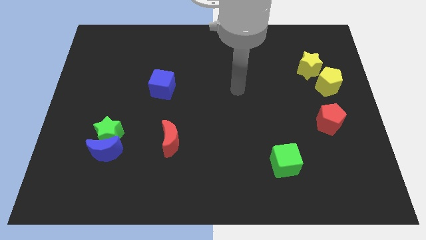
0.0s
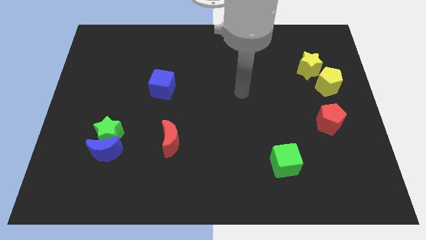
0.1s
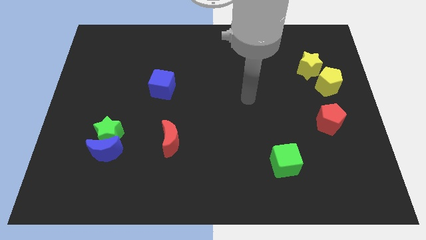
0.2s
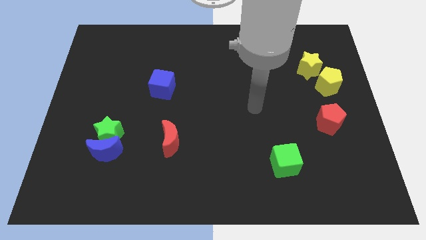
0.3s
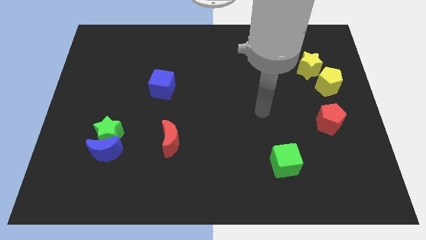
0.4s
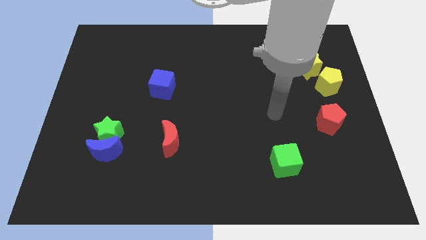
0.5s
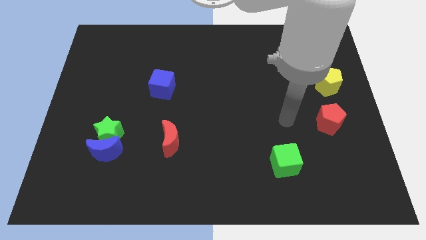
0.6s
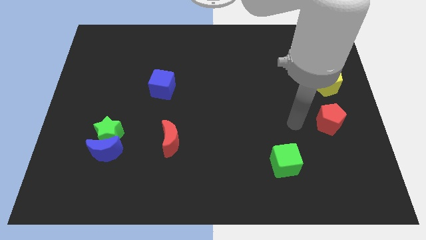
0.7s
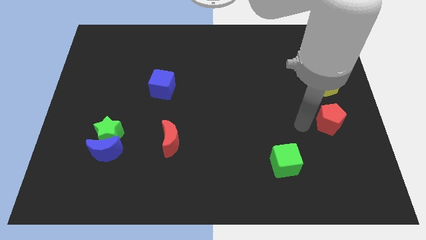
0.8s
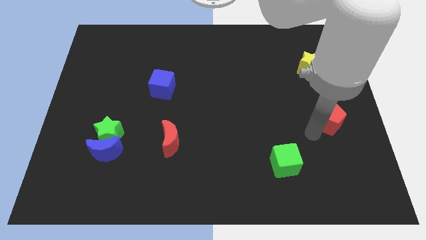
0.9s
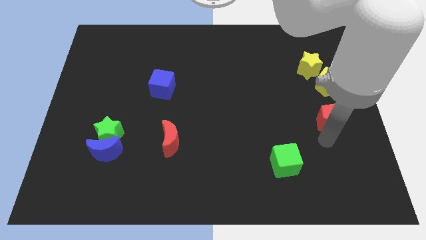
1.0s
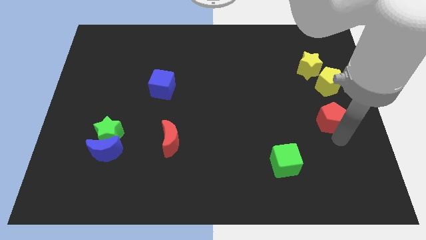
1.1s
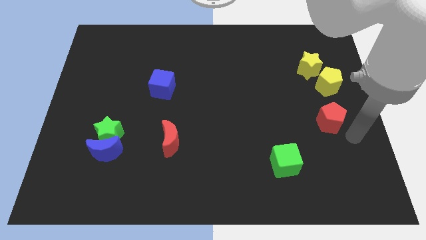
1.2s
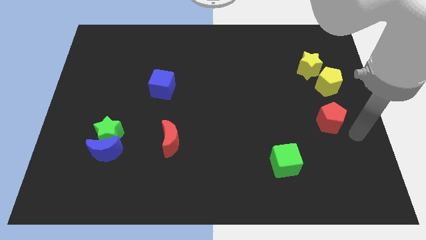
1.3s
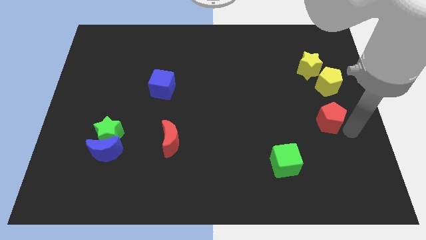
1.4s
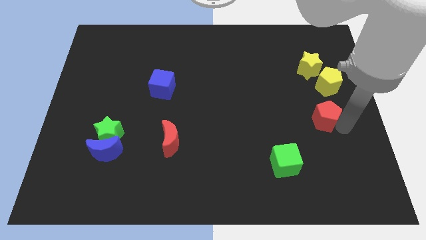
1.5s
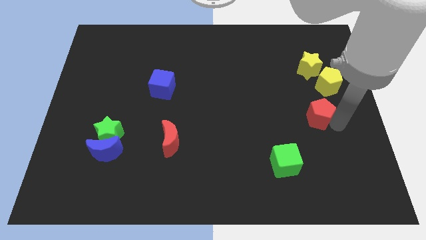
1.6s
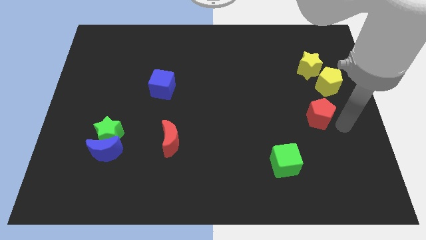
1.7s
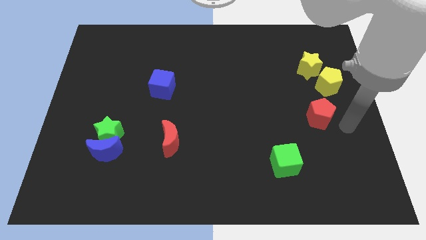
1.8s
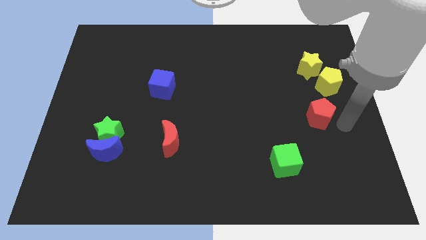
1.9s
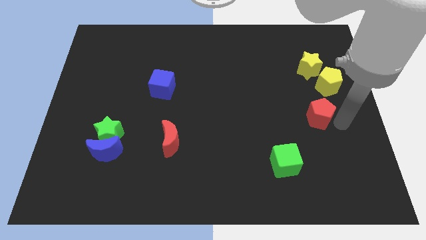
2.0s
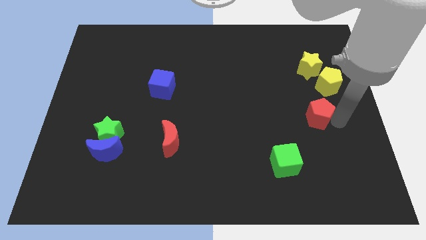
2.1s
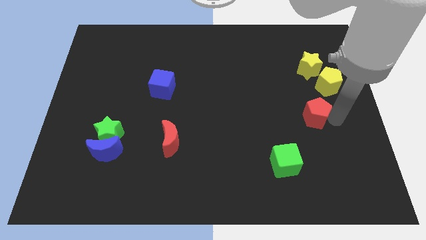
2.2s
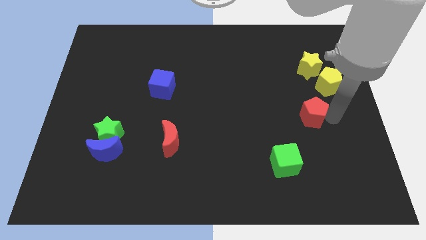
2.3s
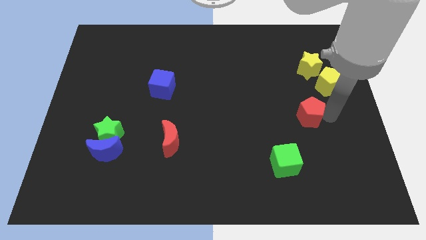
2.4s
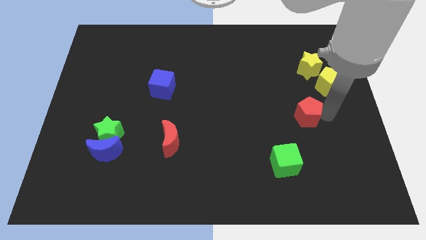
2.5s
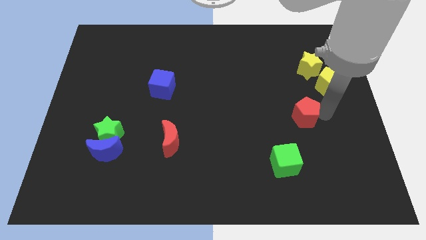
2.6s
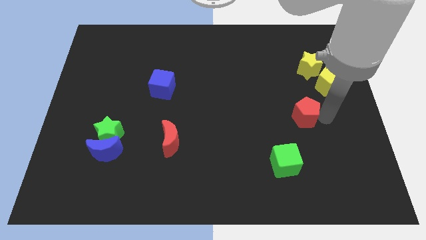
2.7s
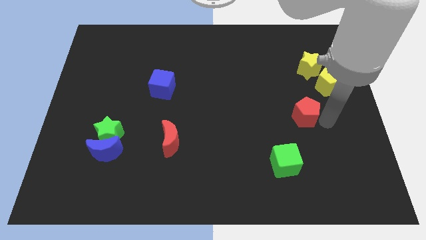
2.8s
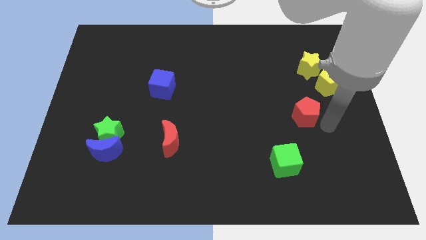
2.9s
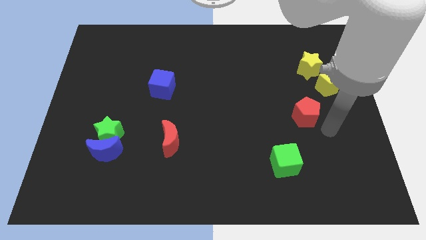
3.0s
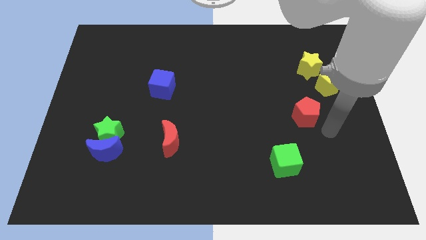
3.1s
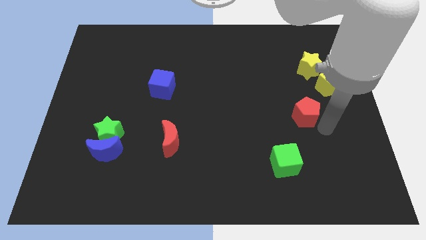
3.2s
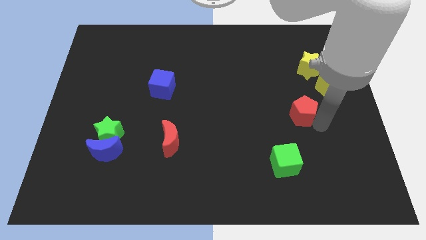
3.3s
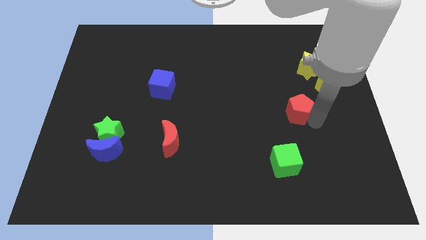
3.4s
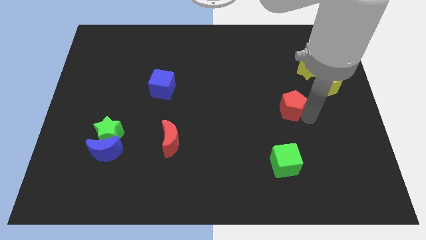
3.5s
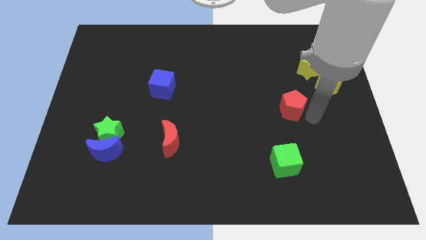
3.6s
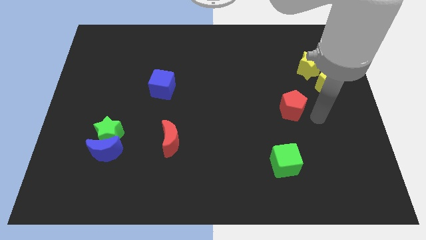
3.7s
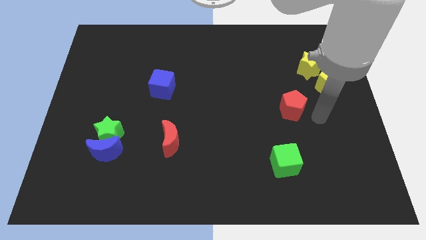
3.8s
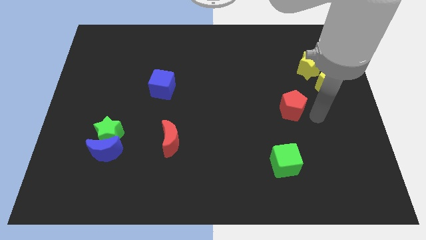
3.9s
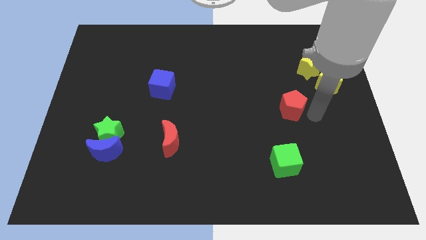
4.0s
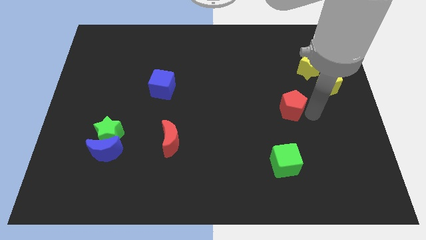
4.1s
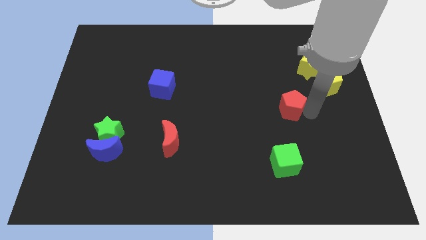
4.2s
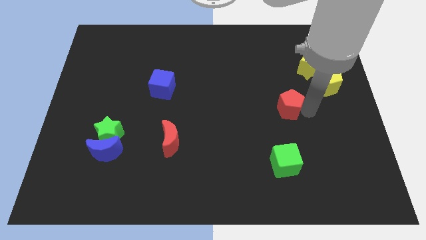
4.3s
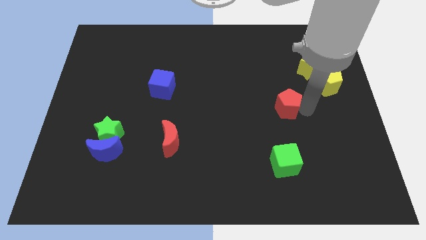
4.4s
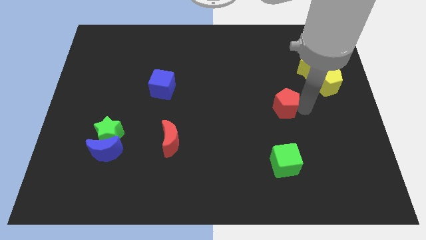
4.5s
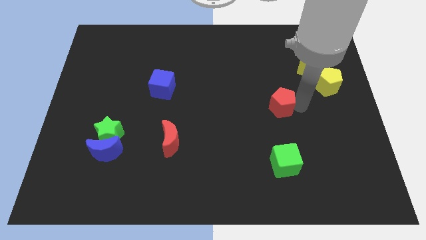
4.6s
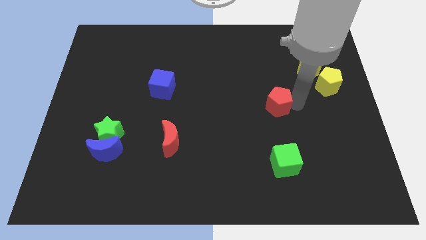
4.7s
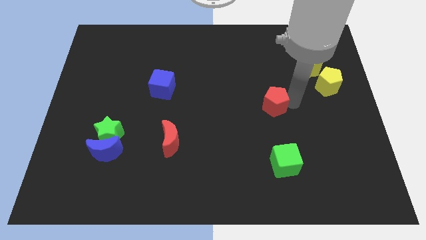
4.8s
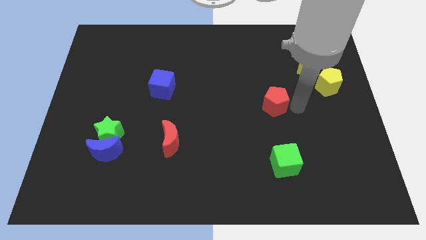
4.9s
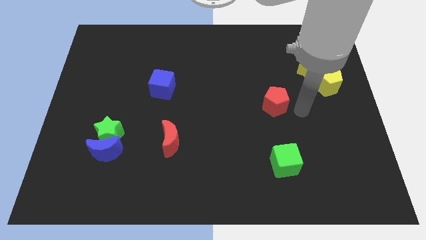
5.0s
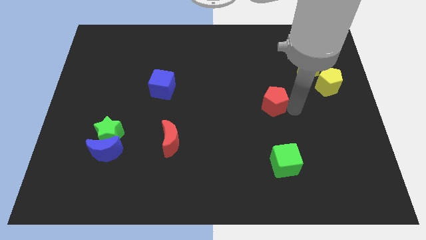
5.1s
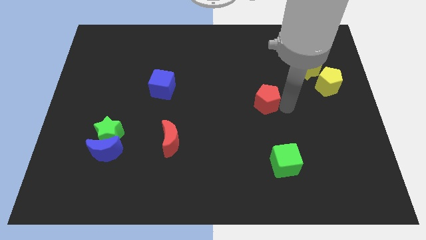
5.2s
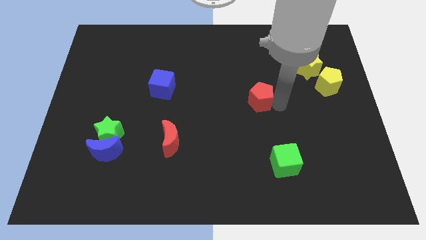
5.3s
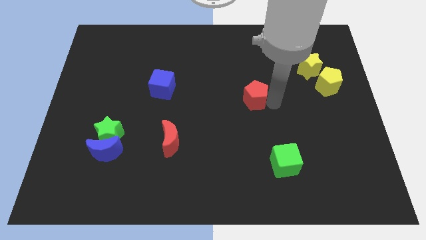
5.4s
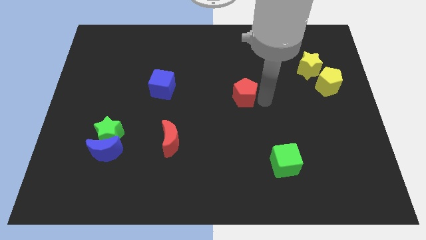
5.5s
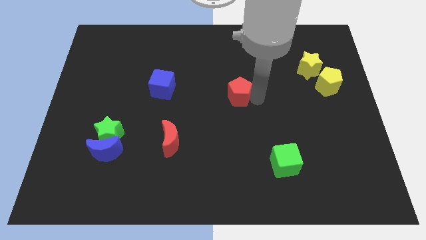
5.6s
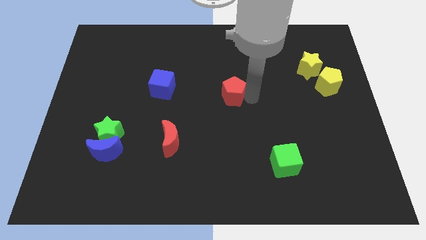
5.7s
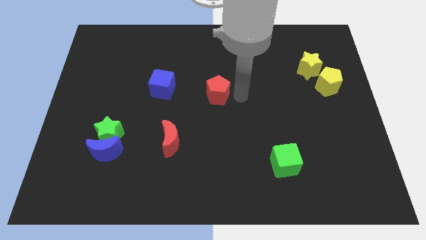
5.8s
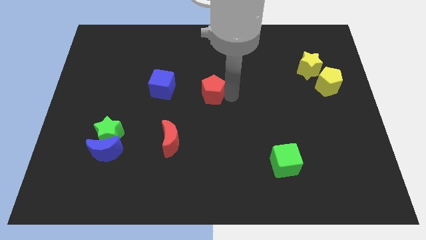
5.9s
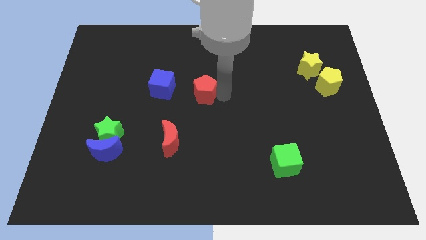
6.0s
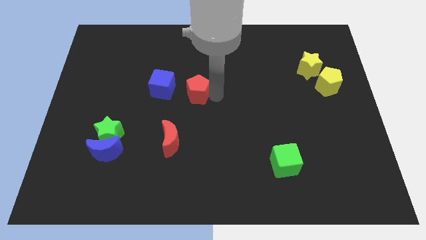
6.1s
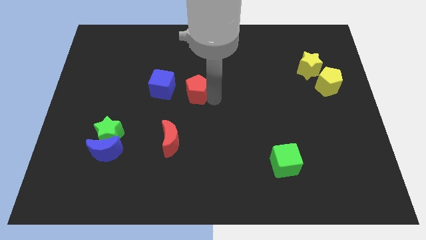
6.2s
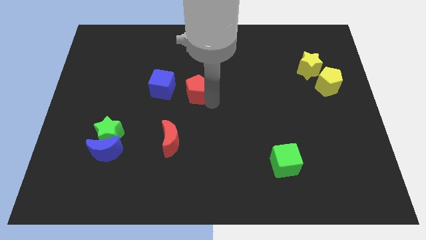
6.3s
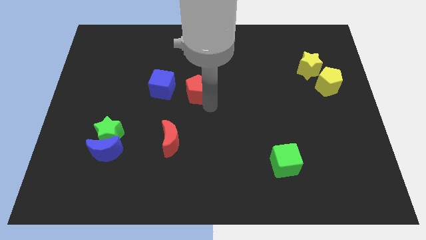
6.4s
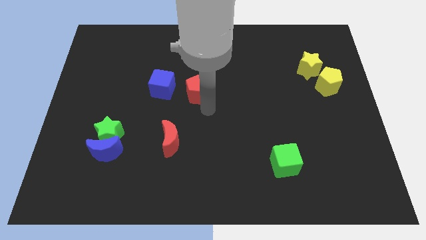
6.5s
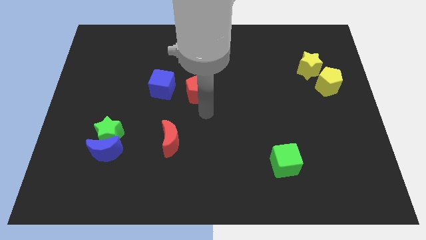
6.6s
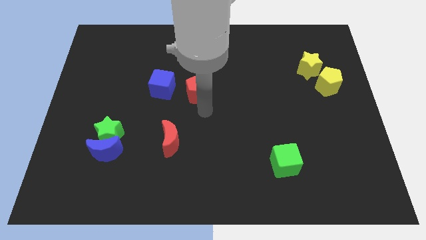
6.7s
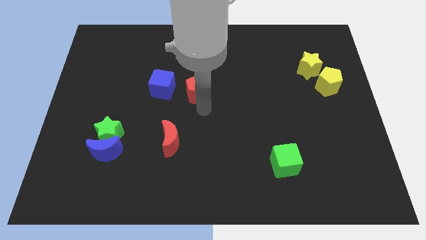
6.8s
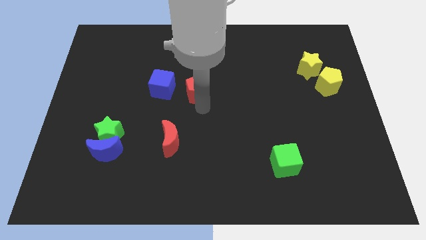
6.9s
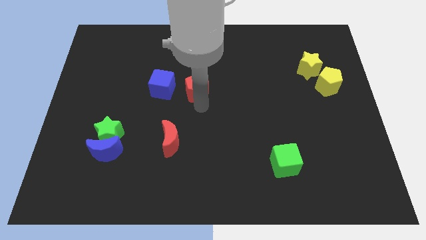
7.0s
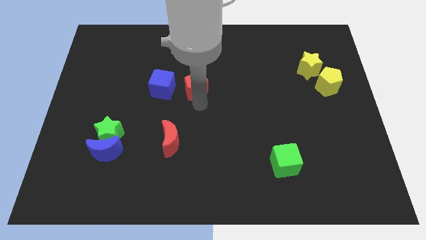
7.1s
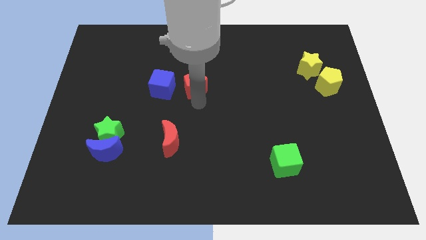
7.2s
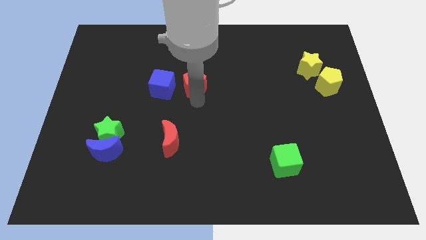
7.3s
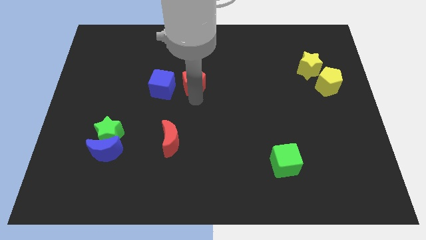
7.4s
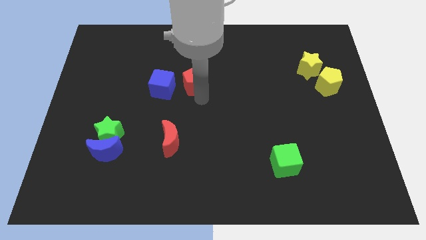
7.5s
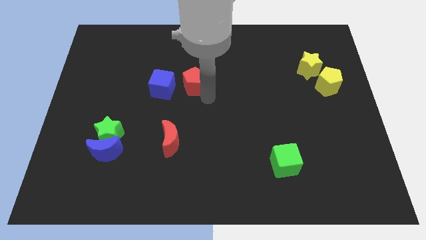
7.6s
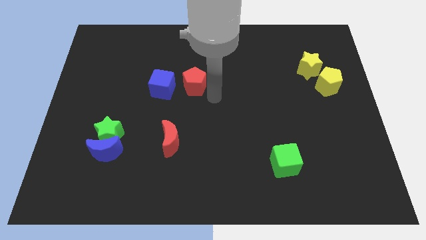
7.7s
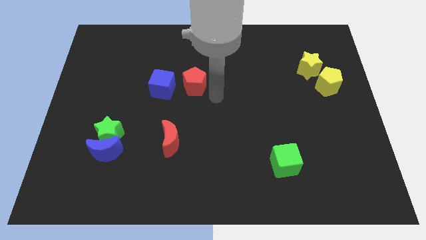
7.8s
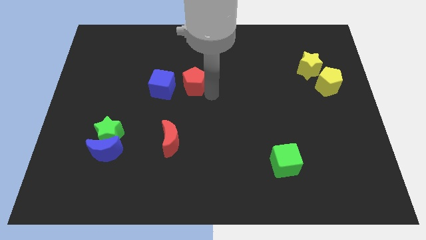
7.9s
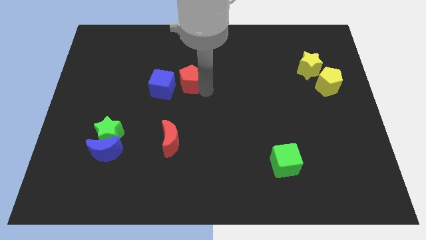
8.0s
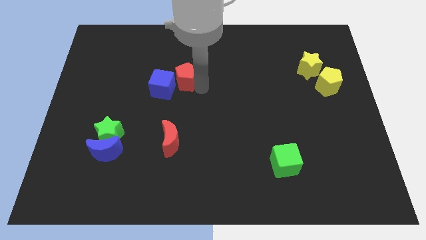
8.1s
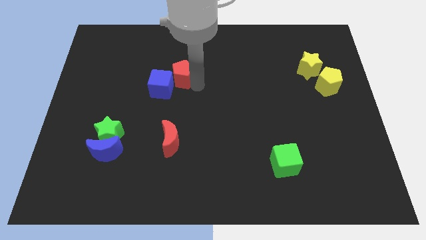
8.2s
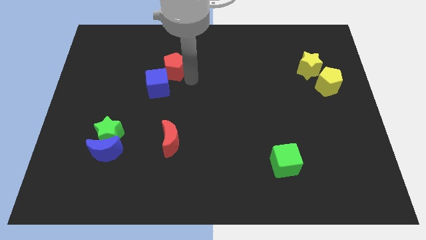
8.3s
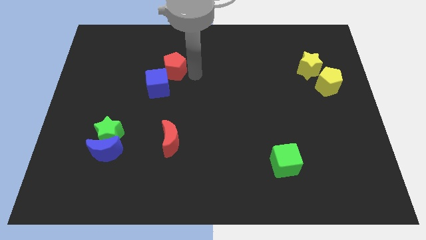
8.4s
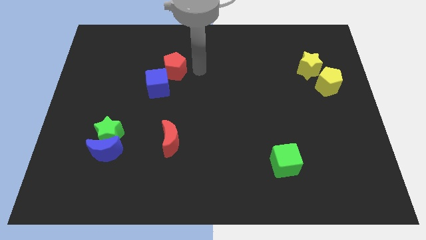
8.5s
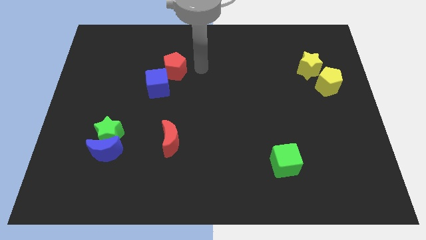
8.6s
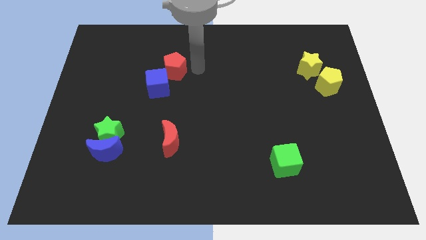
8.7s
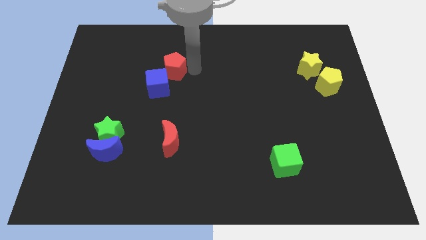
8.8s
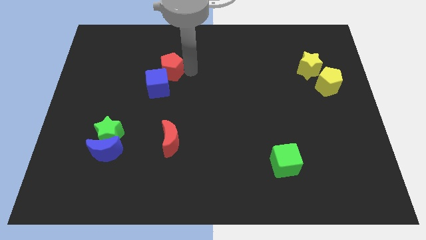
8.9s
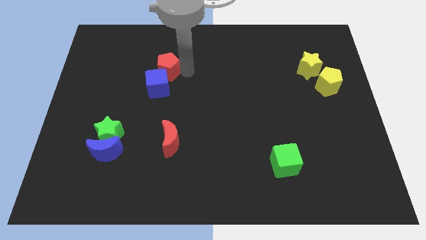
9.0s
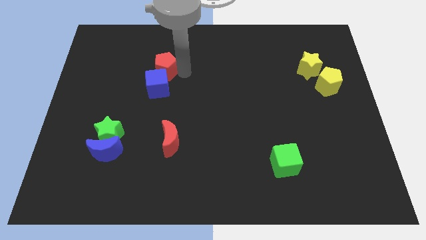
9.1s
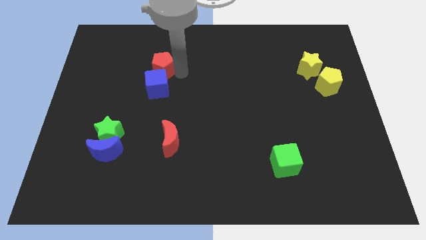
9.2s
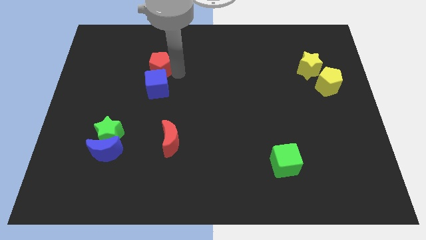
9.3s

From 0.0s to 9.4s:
push the red pentagon to the top left side of the blue cube
